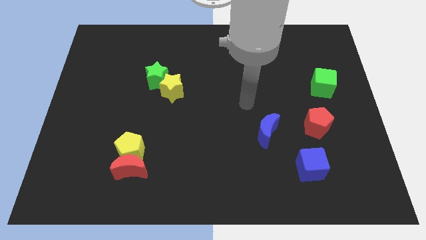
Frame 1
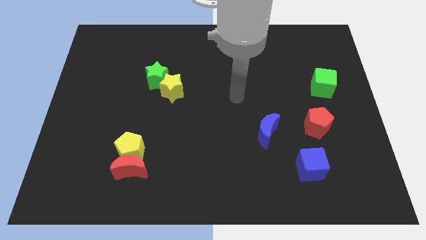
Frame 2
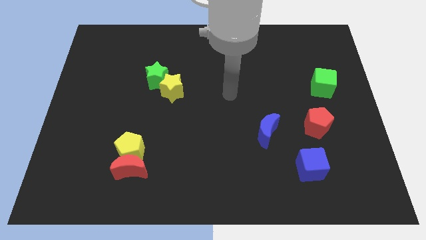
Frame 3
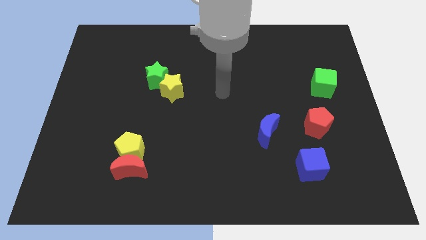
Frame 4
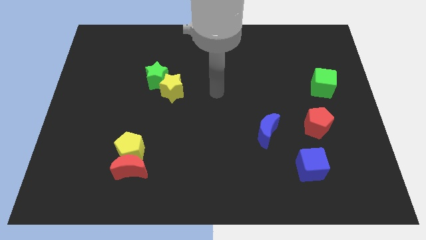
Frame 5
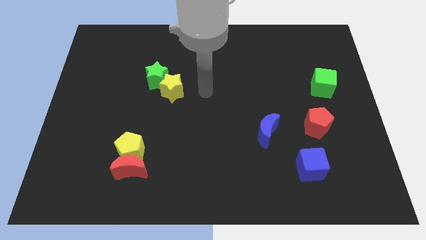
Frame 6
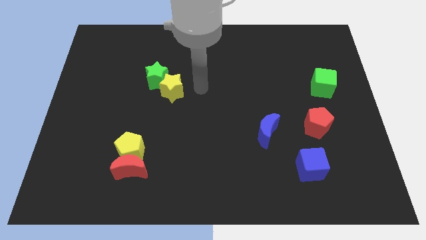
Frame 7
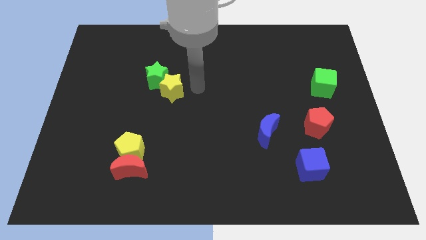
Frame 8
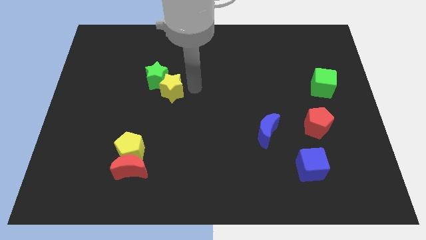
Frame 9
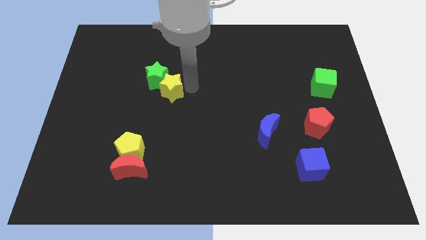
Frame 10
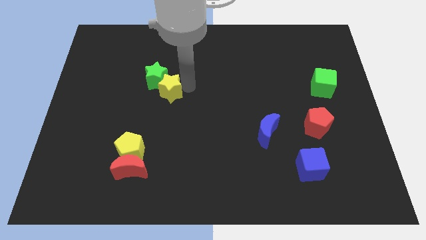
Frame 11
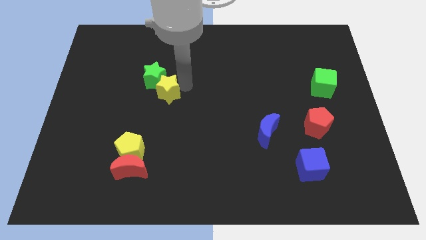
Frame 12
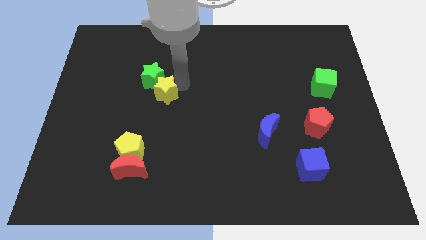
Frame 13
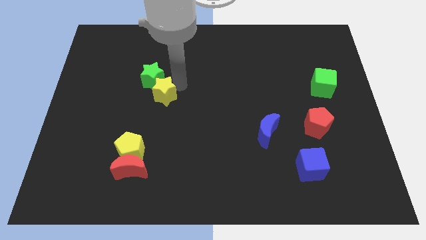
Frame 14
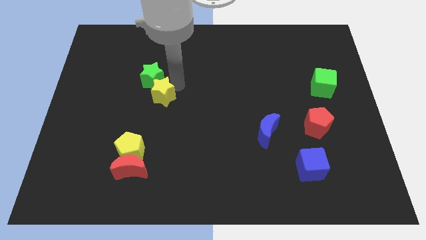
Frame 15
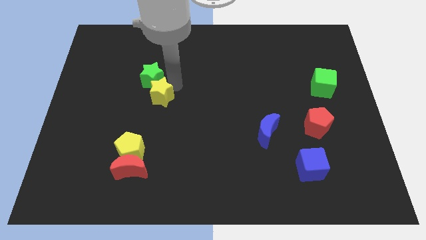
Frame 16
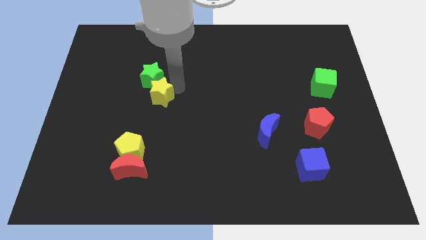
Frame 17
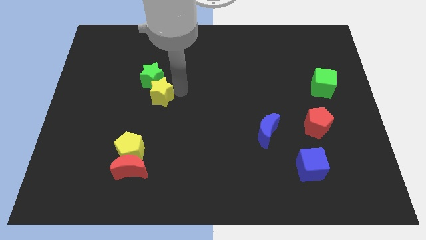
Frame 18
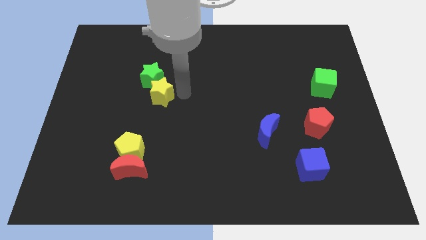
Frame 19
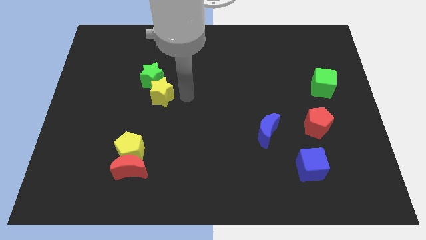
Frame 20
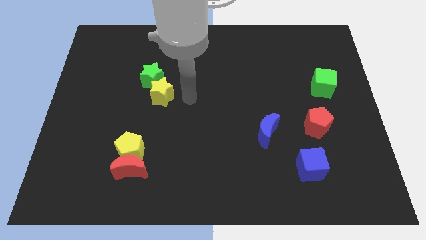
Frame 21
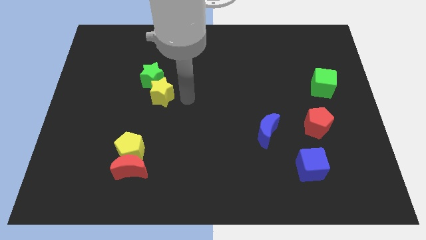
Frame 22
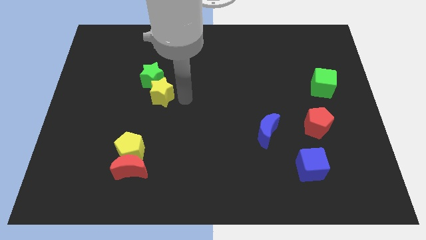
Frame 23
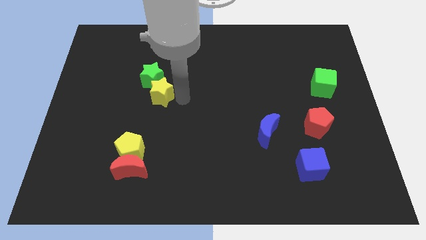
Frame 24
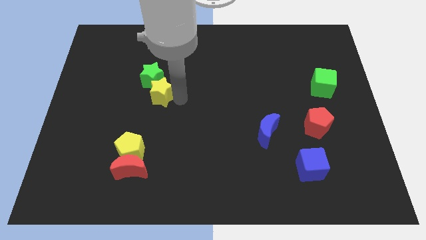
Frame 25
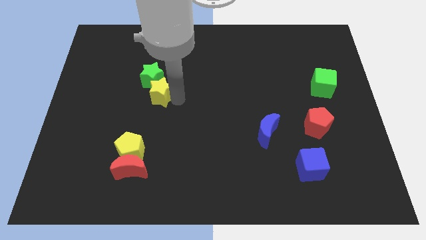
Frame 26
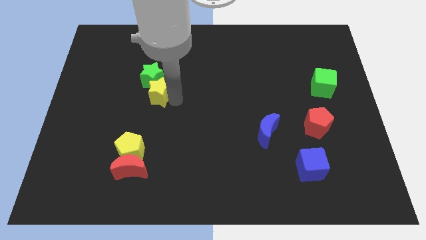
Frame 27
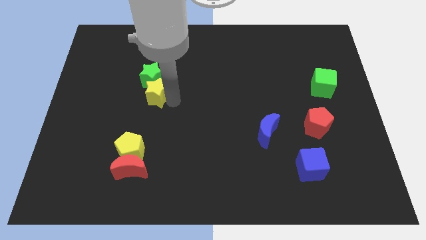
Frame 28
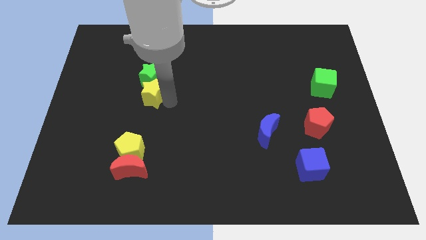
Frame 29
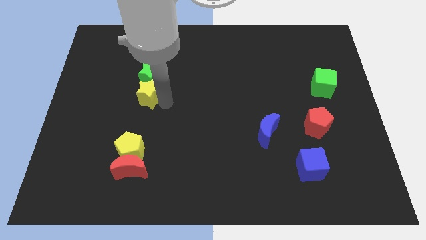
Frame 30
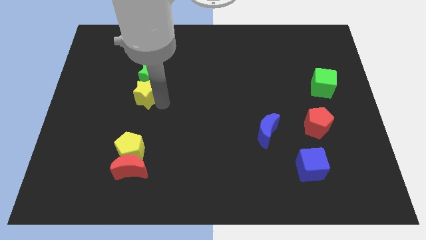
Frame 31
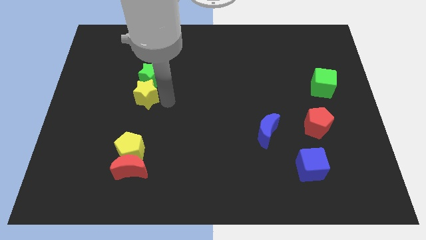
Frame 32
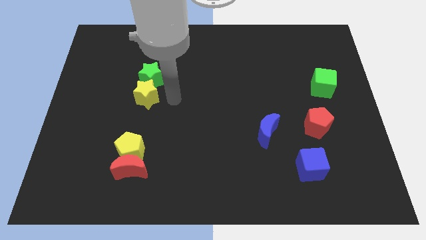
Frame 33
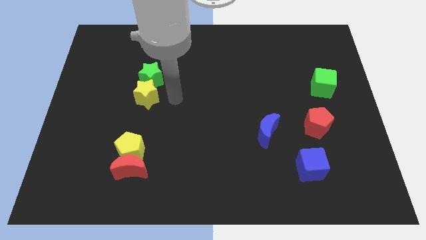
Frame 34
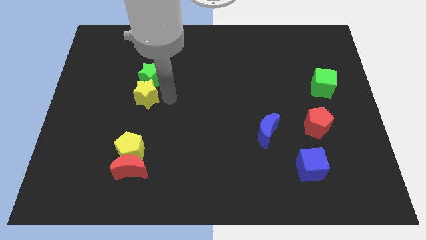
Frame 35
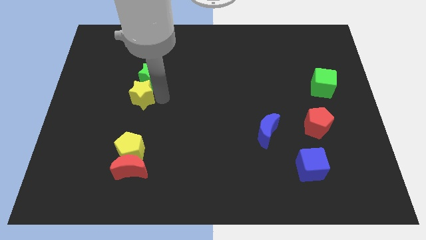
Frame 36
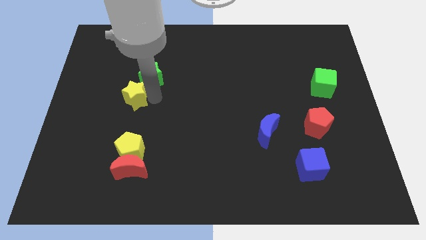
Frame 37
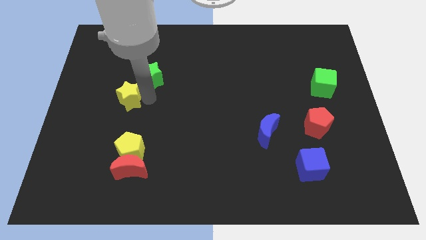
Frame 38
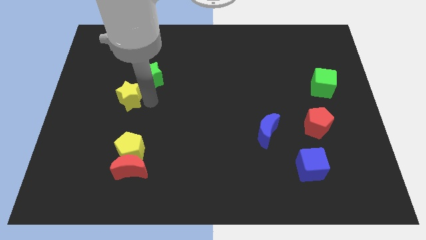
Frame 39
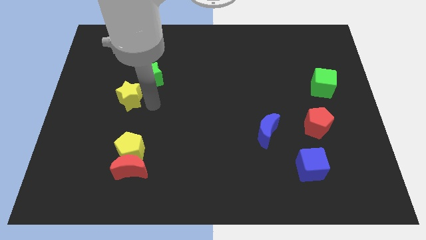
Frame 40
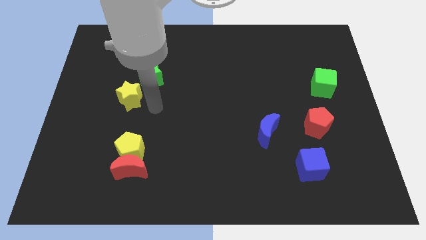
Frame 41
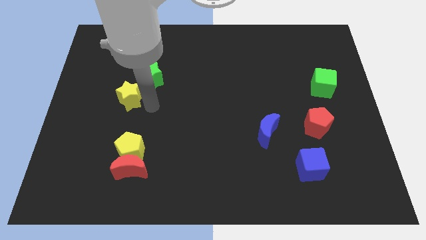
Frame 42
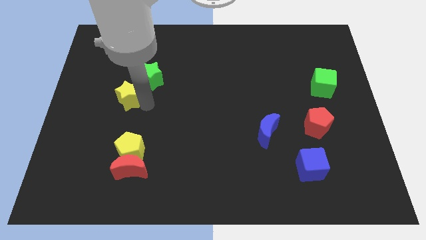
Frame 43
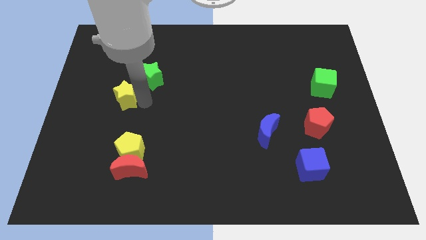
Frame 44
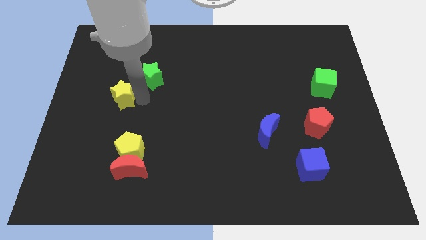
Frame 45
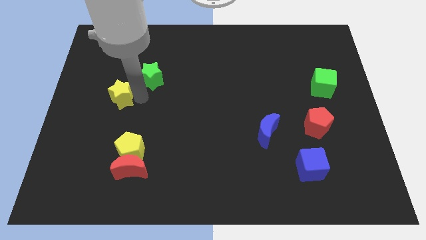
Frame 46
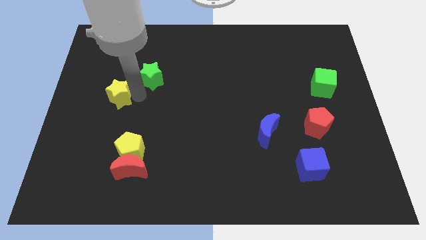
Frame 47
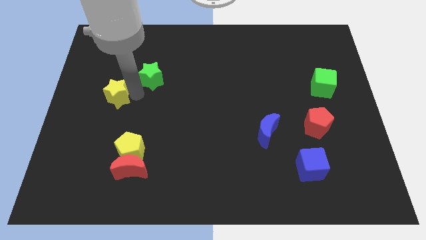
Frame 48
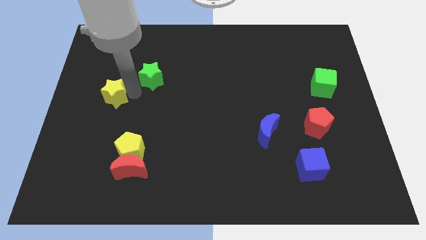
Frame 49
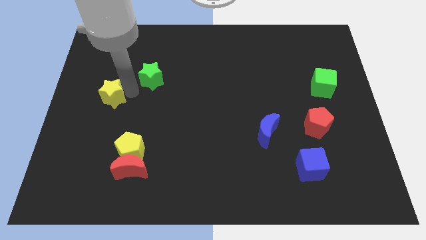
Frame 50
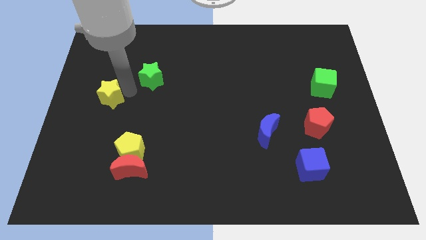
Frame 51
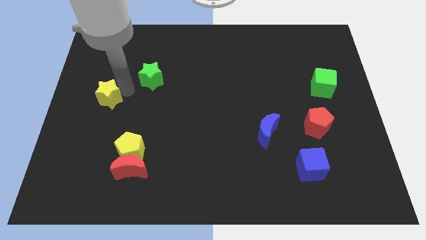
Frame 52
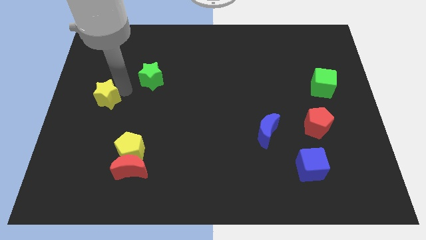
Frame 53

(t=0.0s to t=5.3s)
push the yellow star to the left side of the board

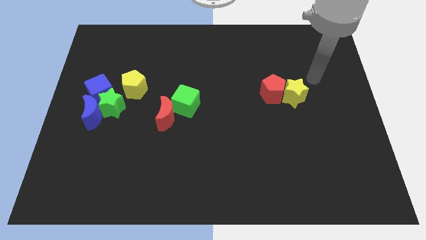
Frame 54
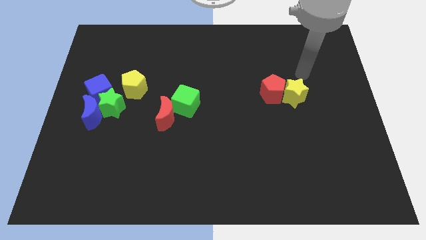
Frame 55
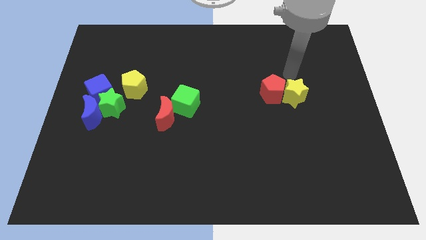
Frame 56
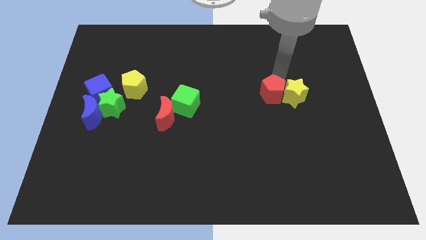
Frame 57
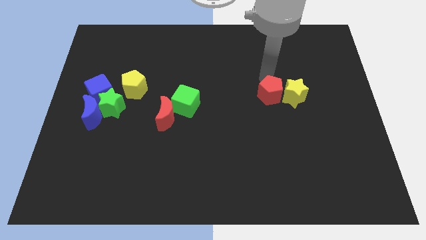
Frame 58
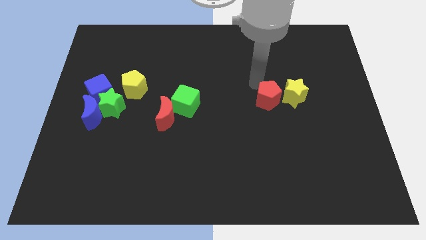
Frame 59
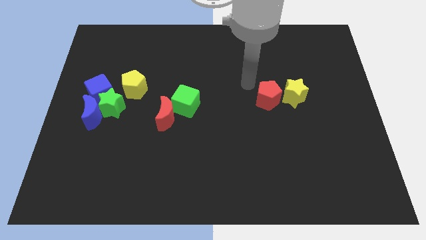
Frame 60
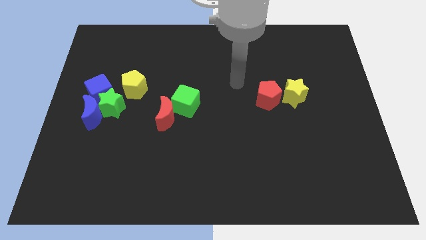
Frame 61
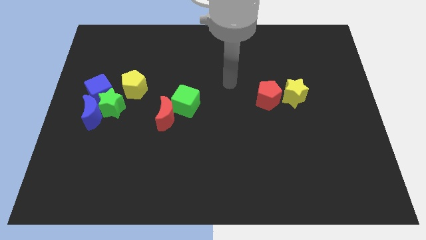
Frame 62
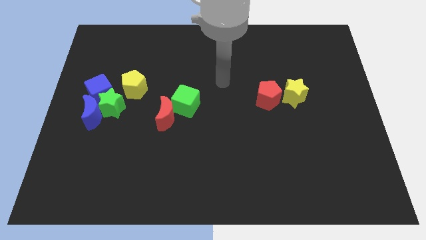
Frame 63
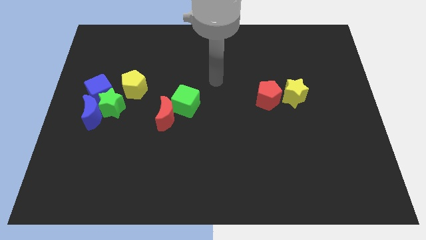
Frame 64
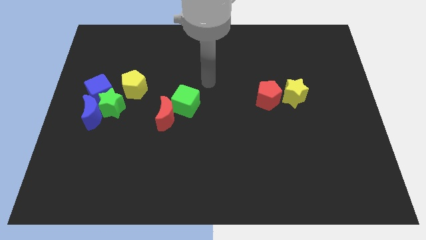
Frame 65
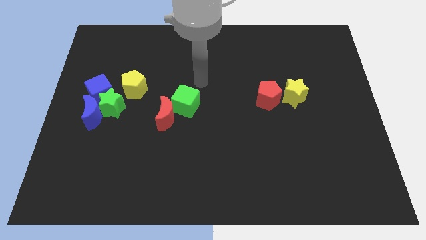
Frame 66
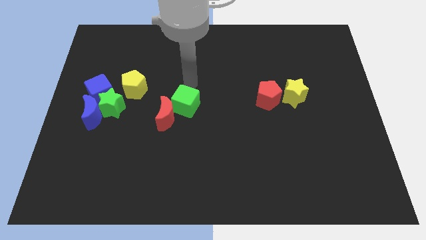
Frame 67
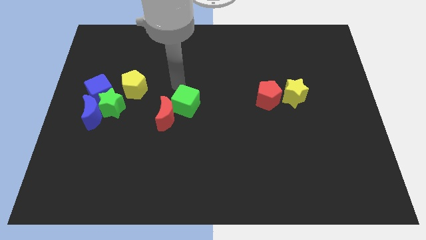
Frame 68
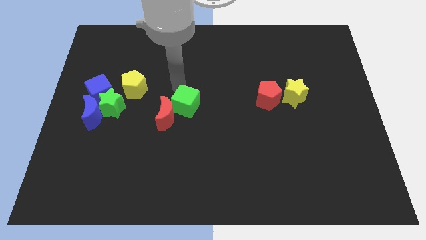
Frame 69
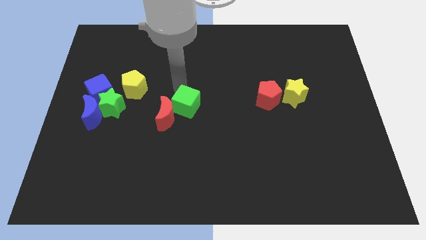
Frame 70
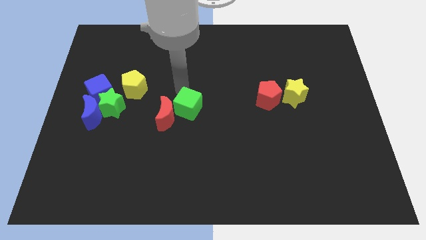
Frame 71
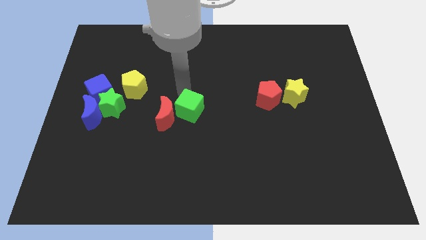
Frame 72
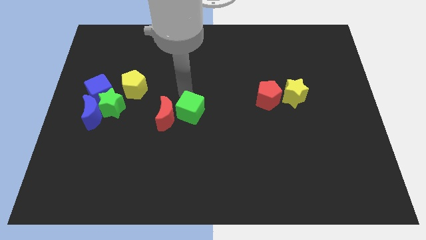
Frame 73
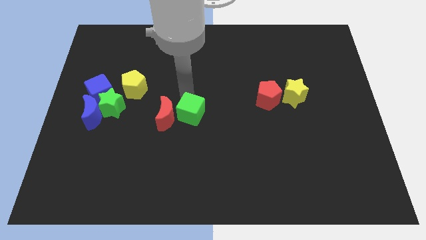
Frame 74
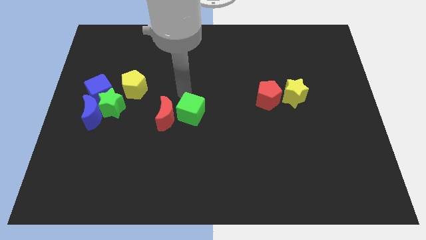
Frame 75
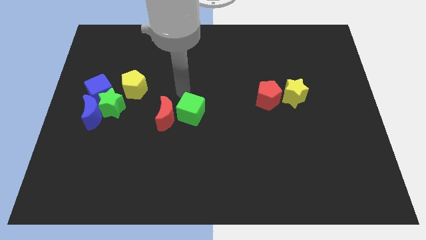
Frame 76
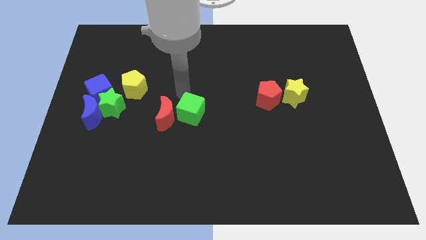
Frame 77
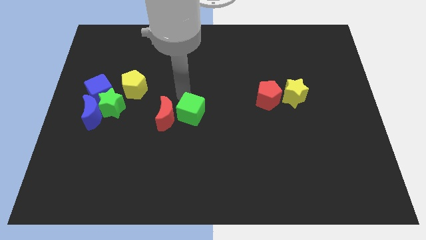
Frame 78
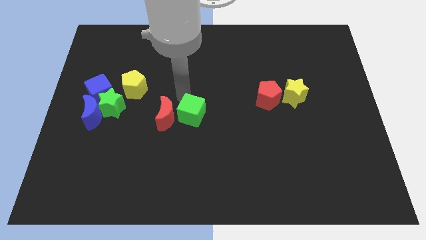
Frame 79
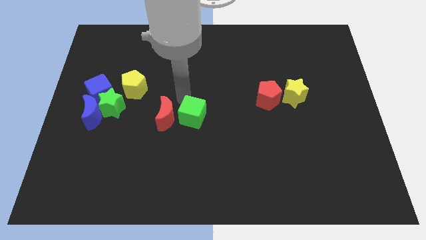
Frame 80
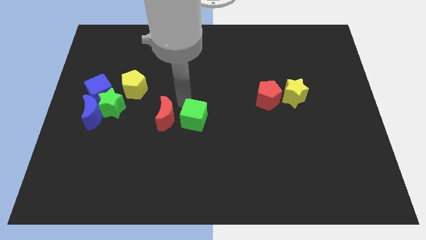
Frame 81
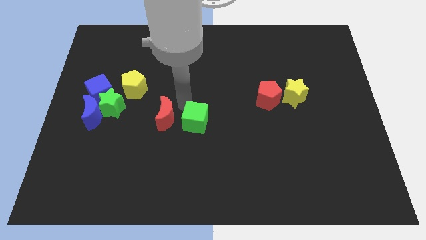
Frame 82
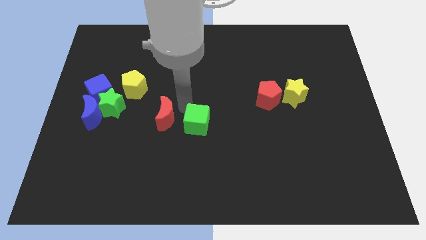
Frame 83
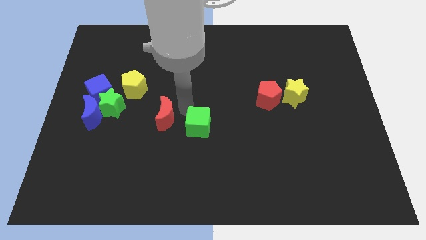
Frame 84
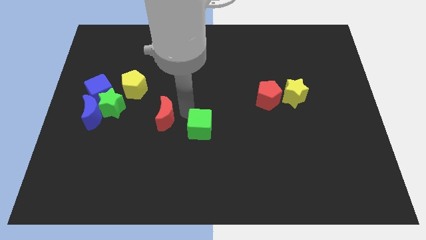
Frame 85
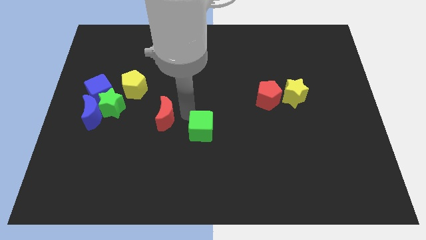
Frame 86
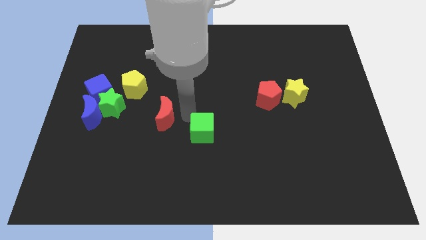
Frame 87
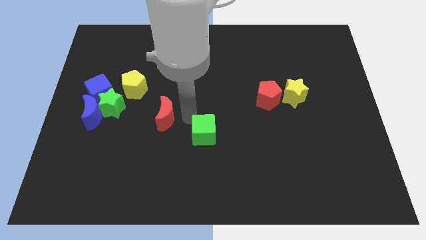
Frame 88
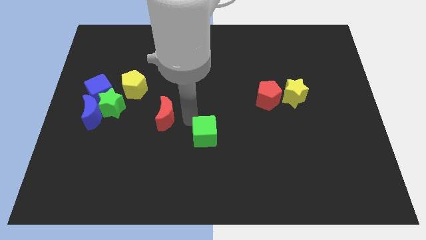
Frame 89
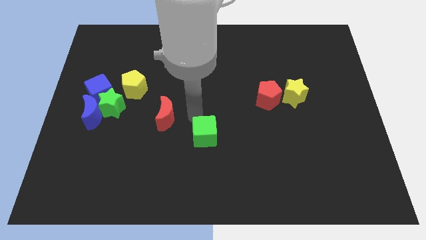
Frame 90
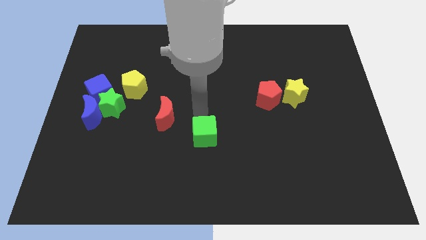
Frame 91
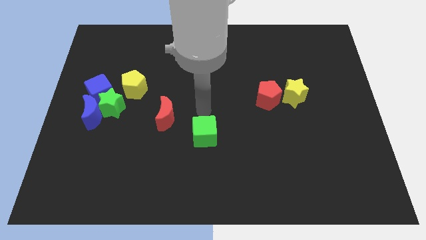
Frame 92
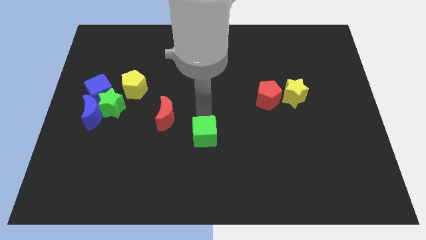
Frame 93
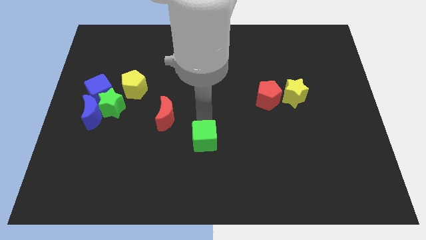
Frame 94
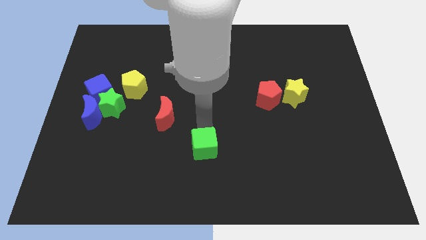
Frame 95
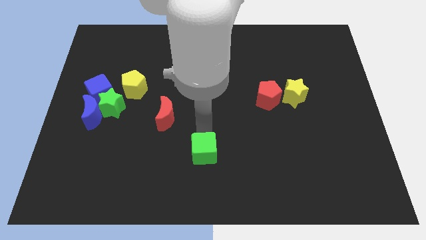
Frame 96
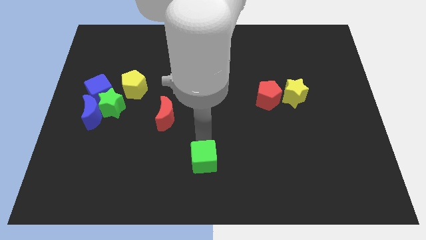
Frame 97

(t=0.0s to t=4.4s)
put the green cube to the bottom
